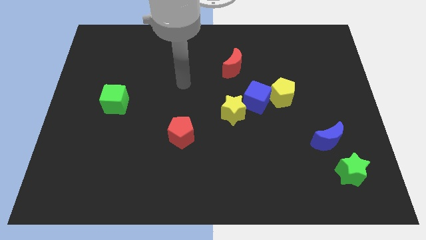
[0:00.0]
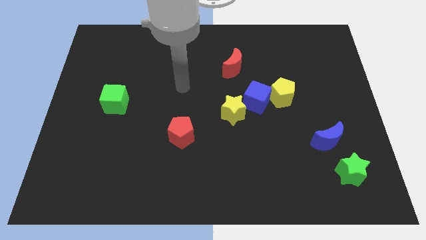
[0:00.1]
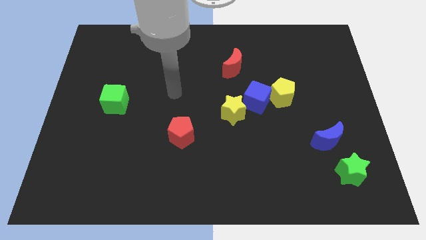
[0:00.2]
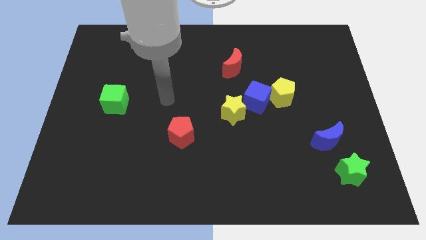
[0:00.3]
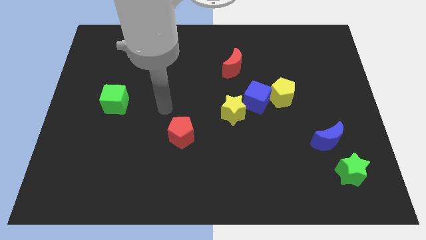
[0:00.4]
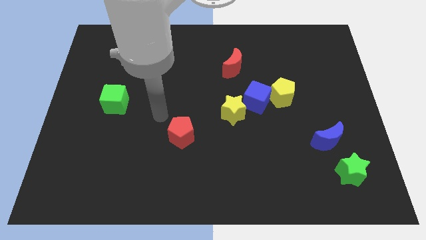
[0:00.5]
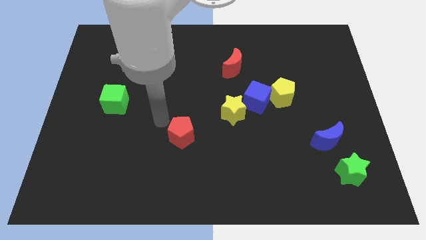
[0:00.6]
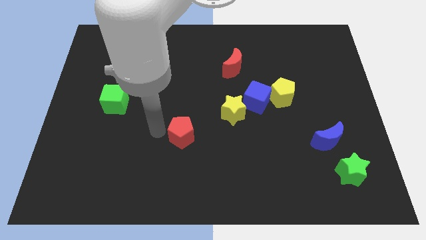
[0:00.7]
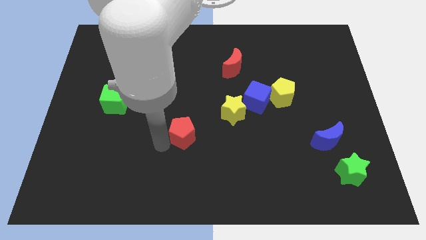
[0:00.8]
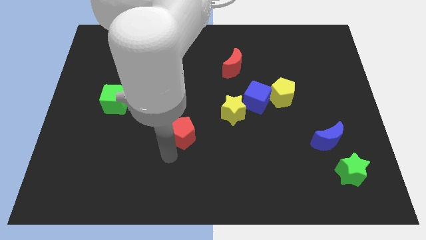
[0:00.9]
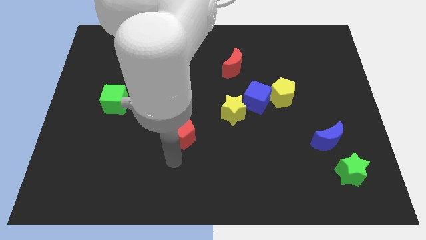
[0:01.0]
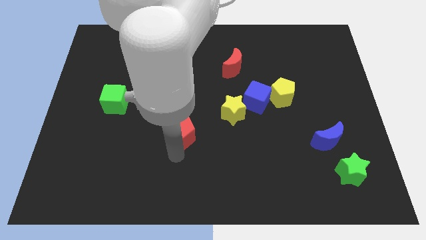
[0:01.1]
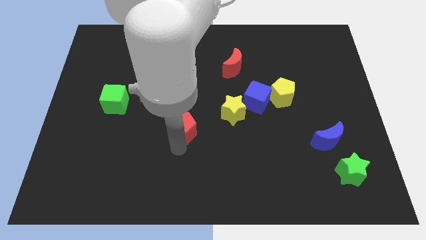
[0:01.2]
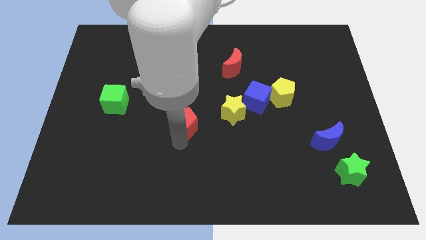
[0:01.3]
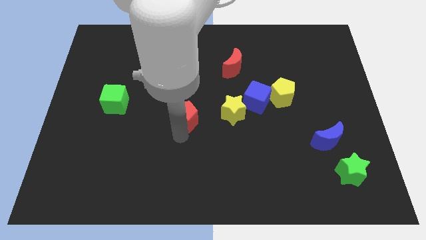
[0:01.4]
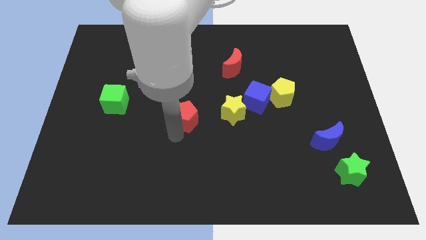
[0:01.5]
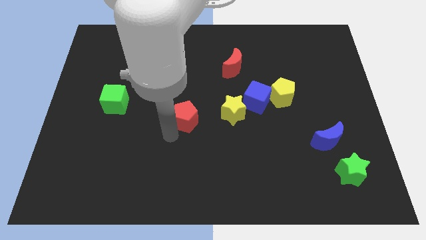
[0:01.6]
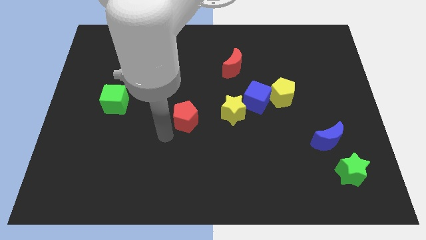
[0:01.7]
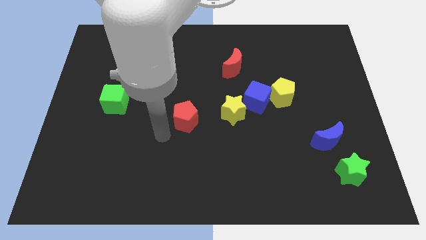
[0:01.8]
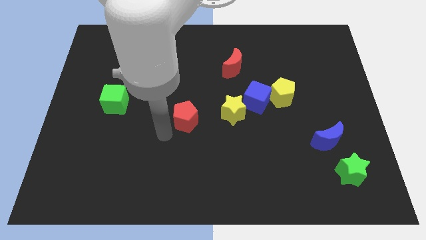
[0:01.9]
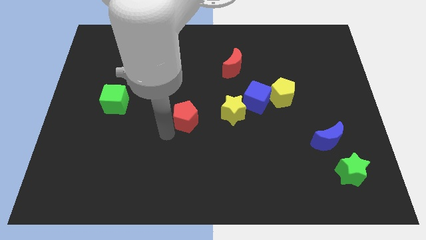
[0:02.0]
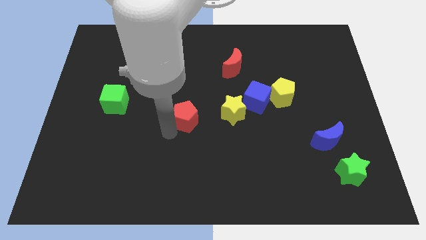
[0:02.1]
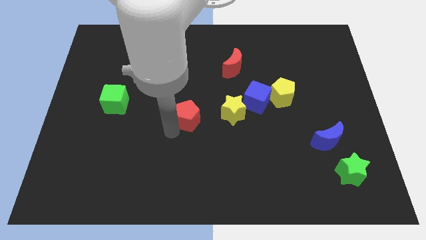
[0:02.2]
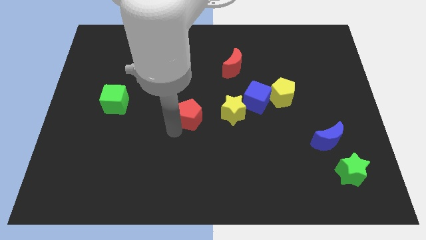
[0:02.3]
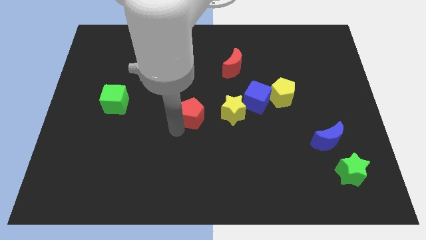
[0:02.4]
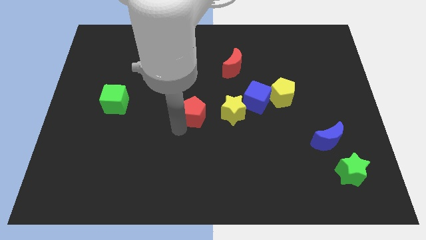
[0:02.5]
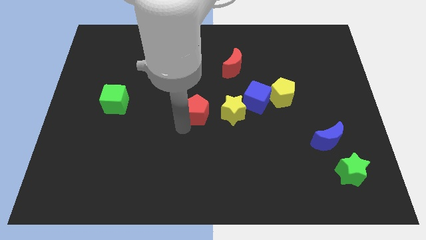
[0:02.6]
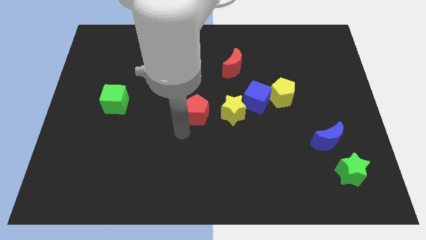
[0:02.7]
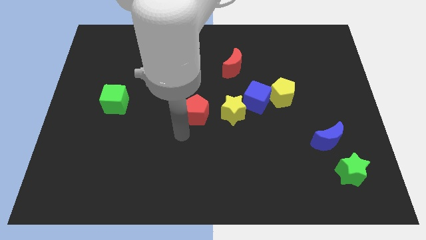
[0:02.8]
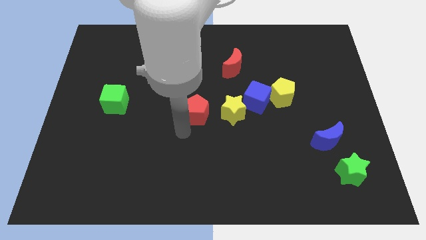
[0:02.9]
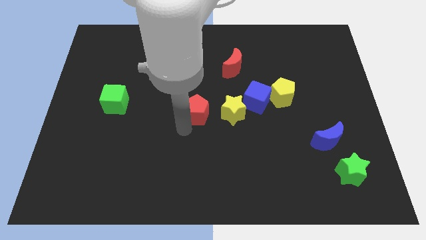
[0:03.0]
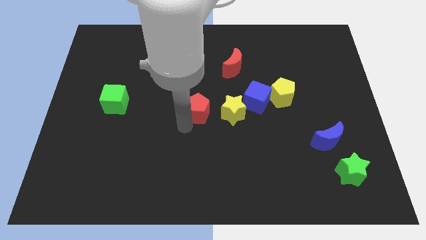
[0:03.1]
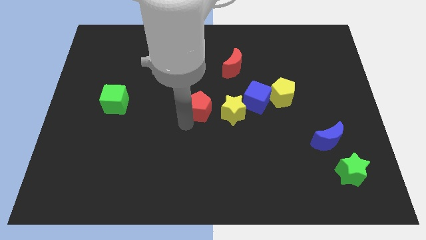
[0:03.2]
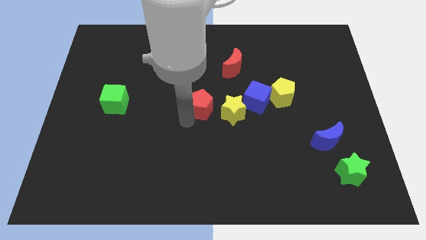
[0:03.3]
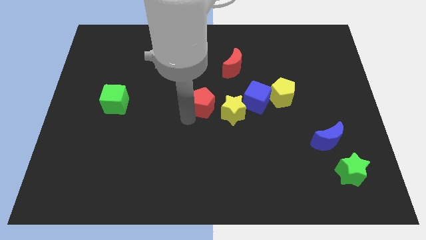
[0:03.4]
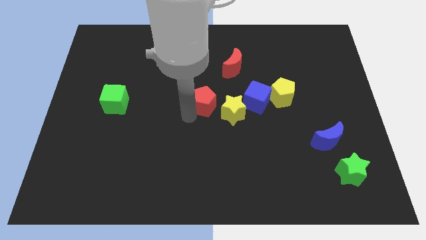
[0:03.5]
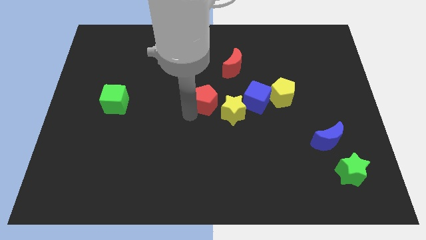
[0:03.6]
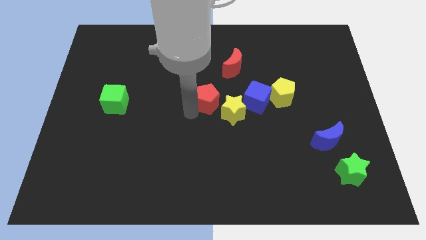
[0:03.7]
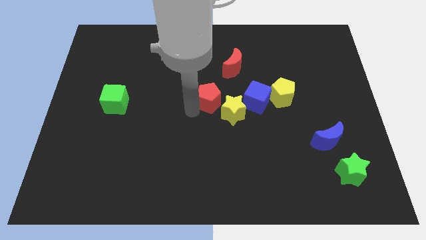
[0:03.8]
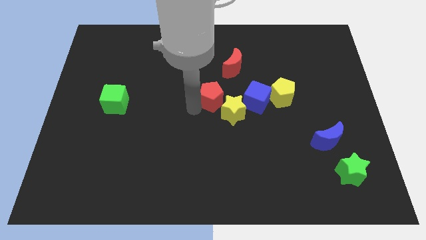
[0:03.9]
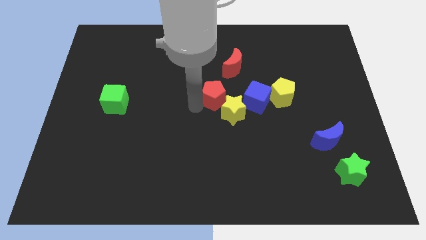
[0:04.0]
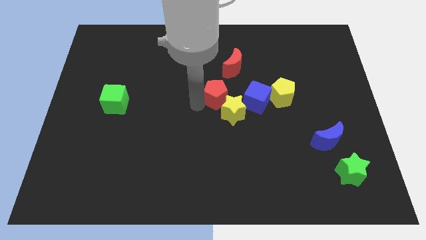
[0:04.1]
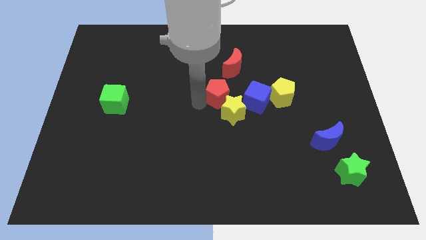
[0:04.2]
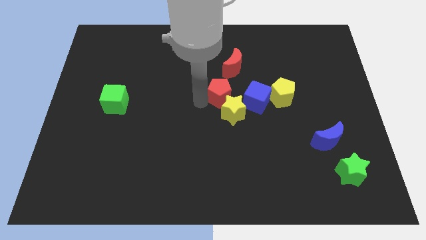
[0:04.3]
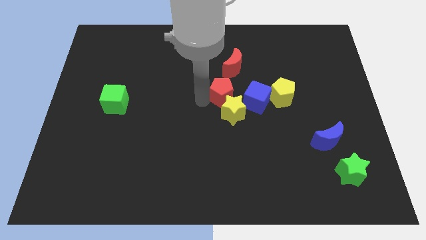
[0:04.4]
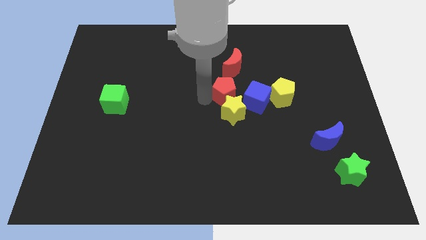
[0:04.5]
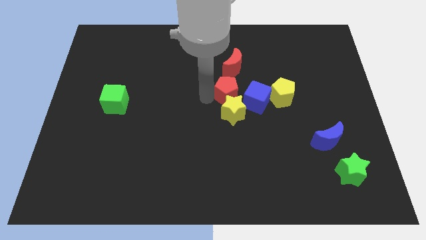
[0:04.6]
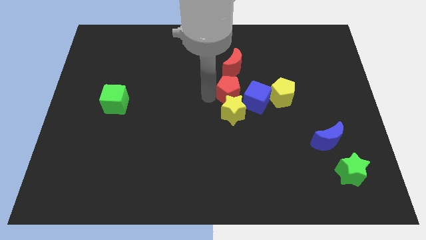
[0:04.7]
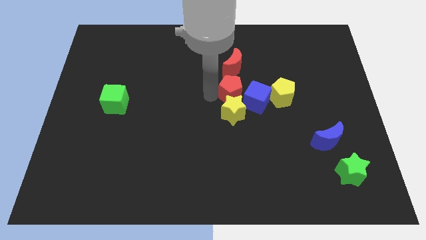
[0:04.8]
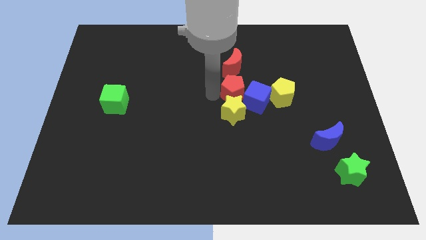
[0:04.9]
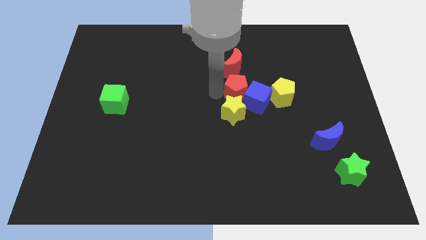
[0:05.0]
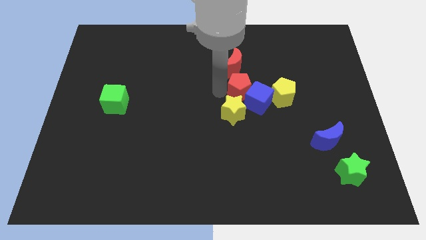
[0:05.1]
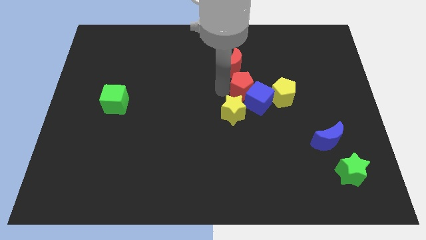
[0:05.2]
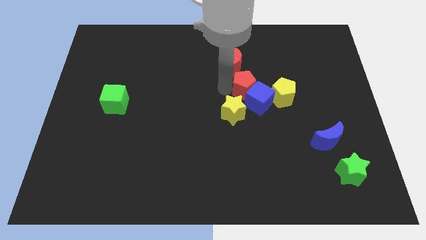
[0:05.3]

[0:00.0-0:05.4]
slide the red pentagon diagonally up and right

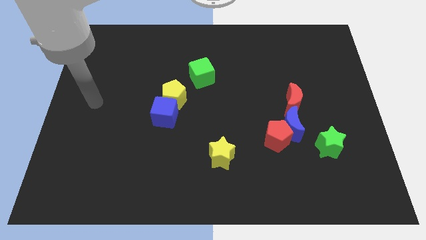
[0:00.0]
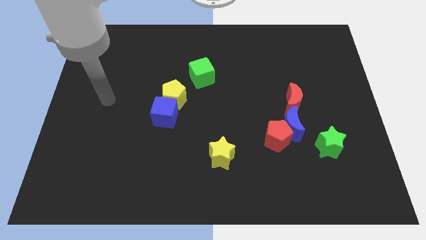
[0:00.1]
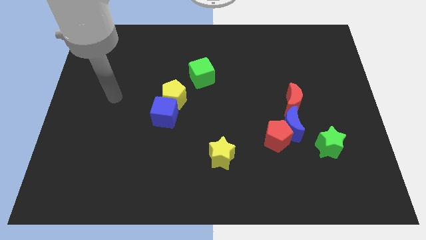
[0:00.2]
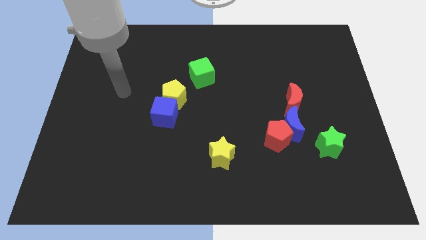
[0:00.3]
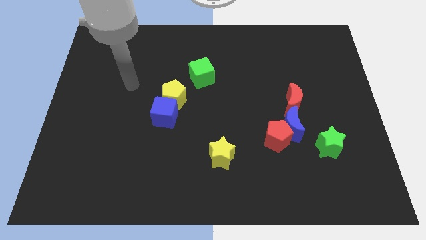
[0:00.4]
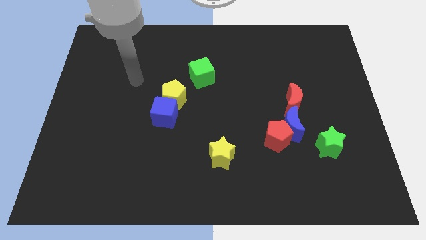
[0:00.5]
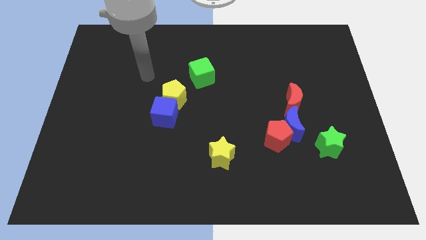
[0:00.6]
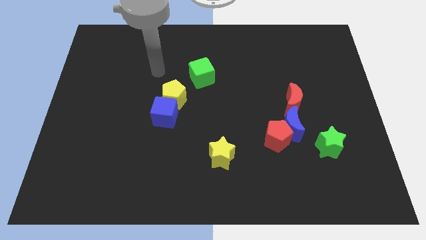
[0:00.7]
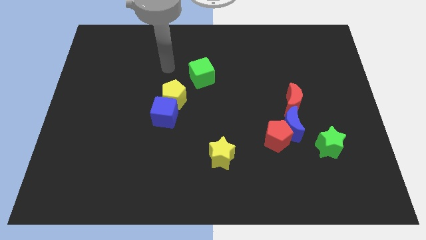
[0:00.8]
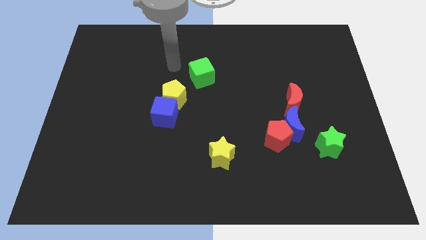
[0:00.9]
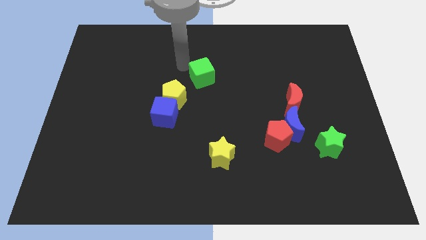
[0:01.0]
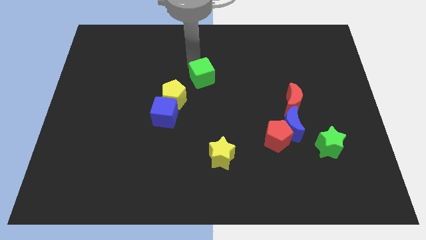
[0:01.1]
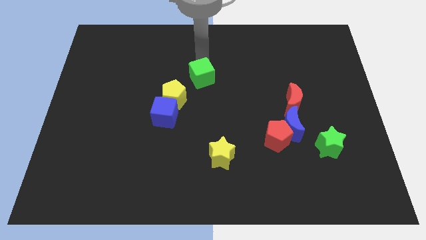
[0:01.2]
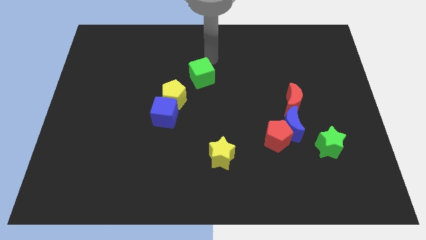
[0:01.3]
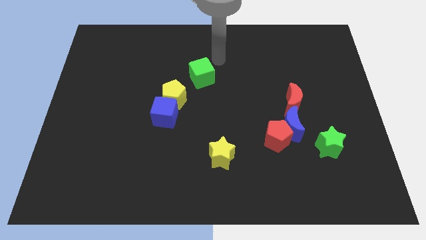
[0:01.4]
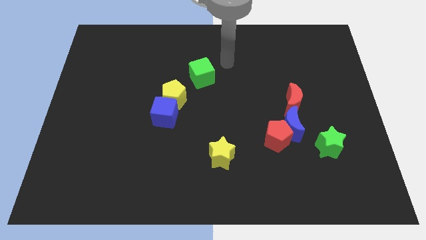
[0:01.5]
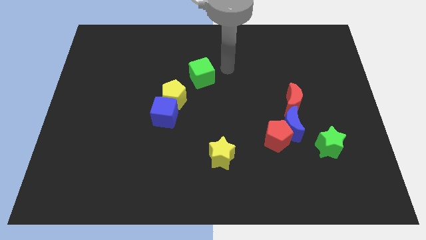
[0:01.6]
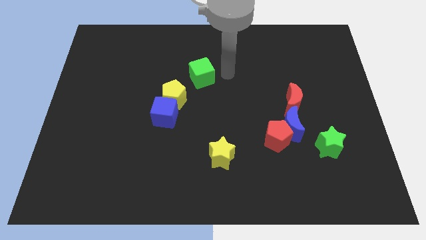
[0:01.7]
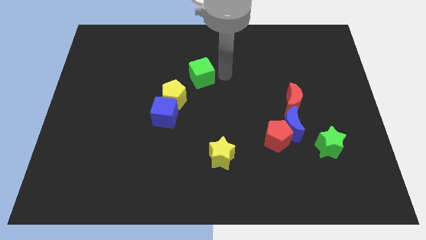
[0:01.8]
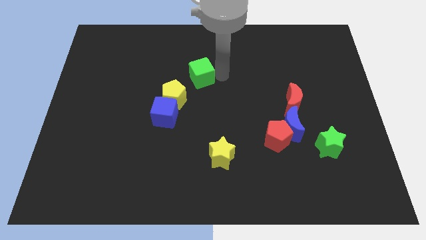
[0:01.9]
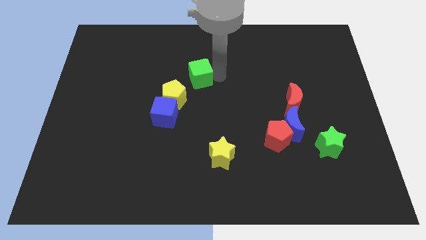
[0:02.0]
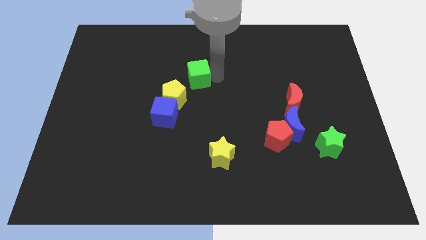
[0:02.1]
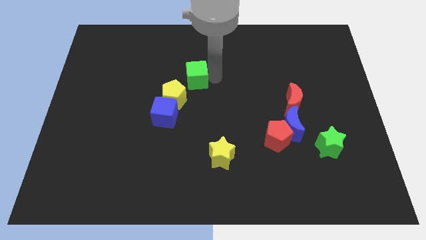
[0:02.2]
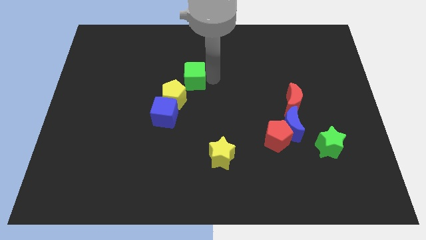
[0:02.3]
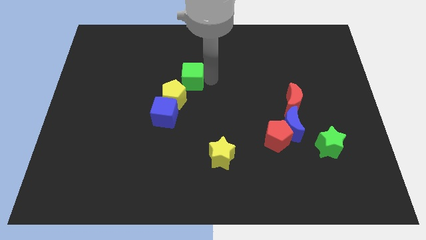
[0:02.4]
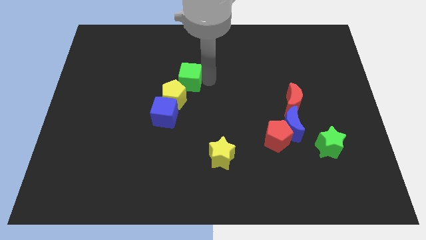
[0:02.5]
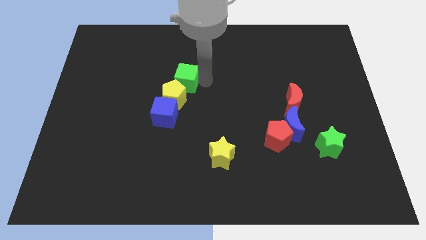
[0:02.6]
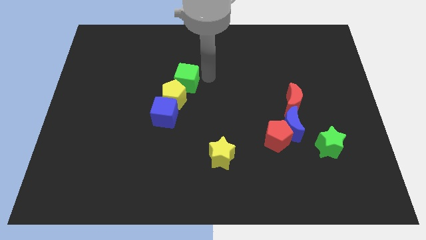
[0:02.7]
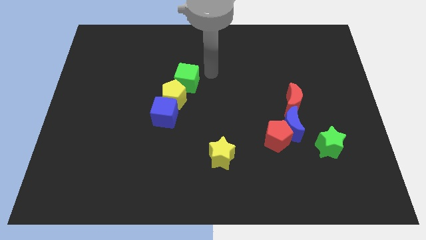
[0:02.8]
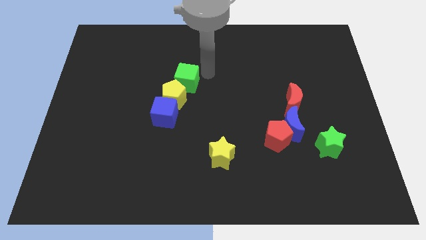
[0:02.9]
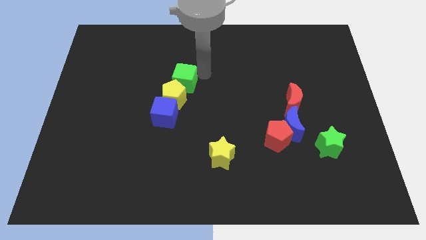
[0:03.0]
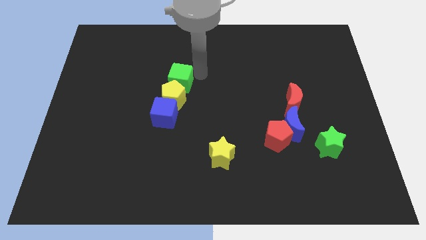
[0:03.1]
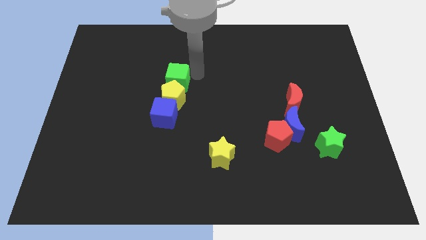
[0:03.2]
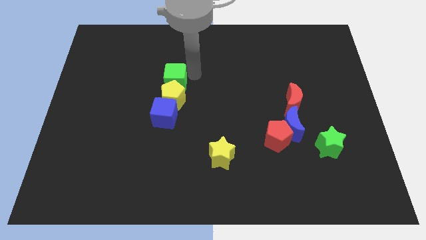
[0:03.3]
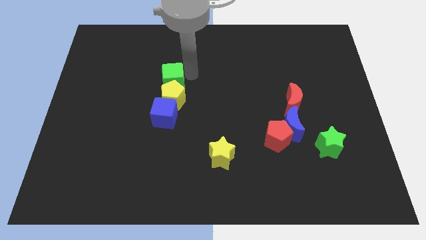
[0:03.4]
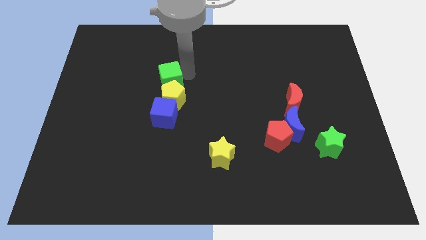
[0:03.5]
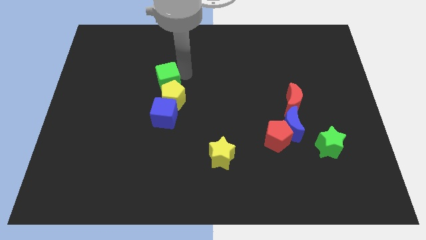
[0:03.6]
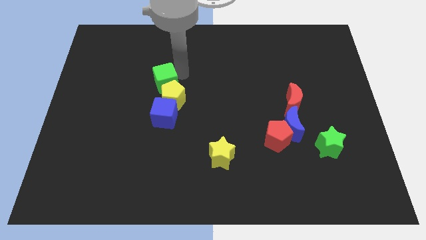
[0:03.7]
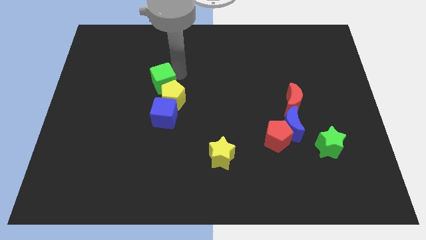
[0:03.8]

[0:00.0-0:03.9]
slide the green cube somewhat downwards and left diagonally
